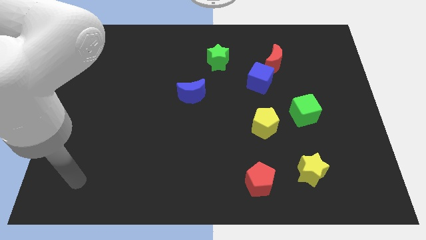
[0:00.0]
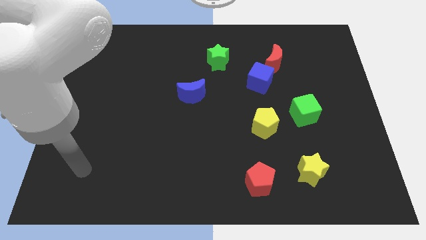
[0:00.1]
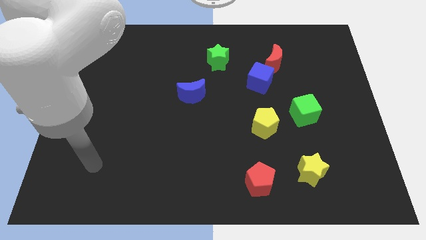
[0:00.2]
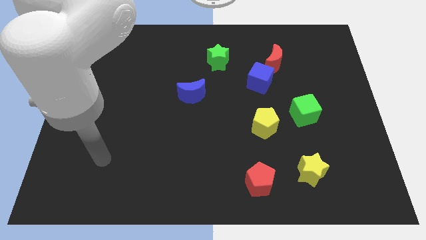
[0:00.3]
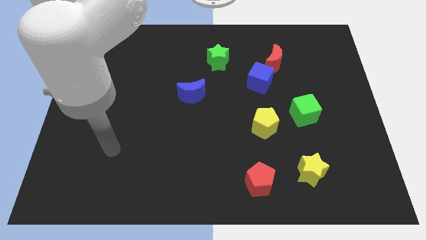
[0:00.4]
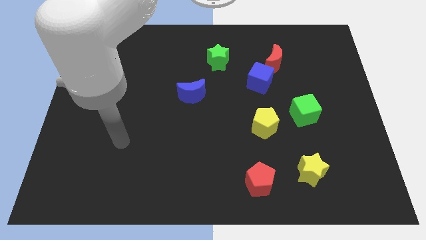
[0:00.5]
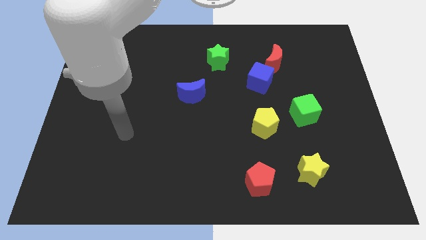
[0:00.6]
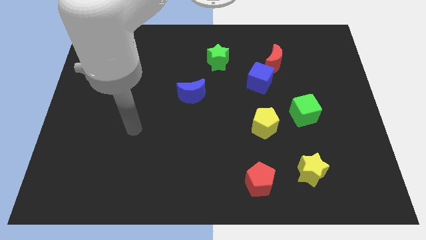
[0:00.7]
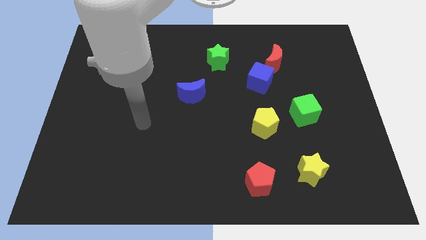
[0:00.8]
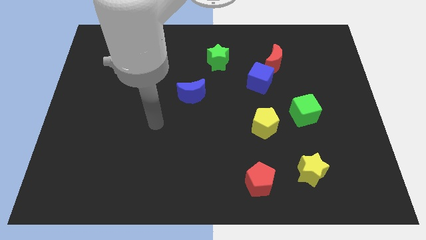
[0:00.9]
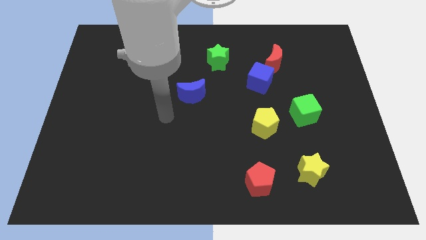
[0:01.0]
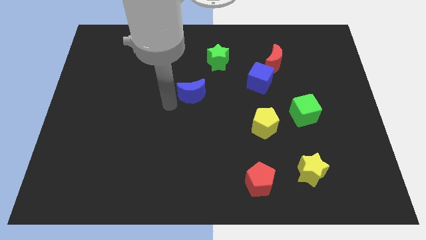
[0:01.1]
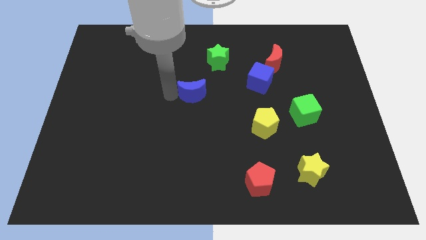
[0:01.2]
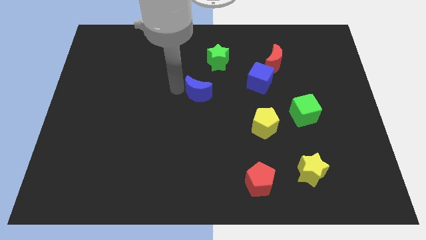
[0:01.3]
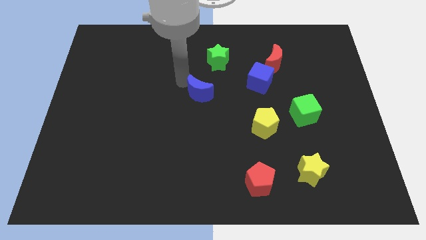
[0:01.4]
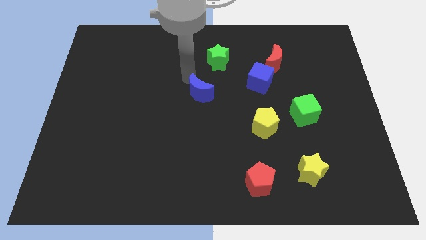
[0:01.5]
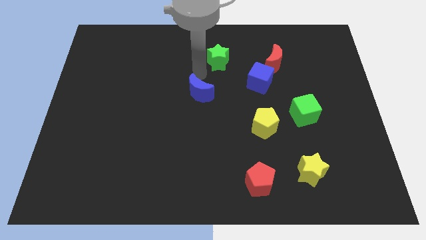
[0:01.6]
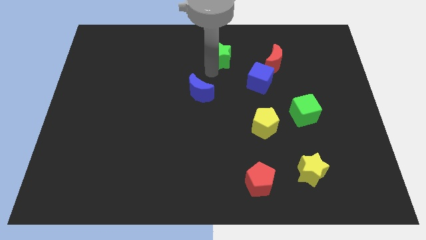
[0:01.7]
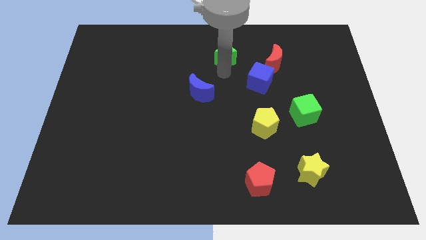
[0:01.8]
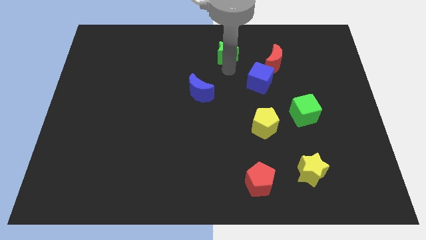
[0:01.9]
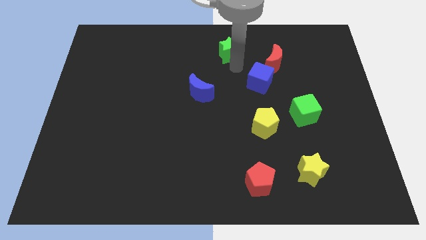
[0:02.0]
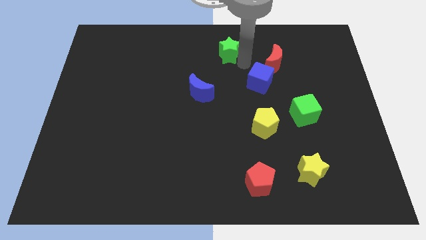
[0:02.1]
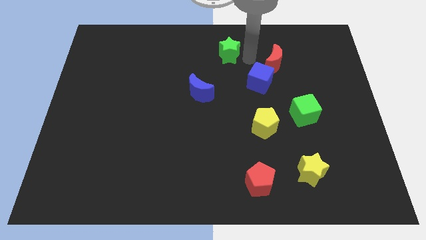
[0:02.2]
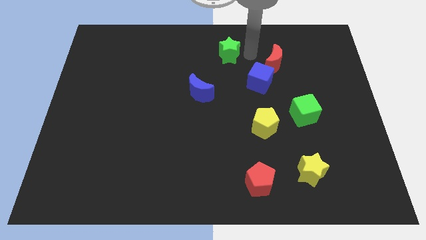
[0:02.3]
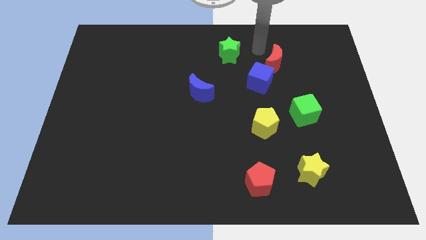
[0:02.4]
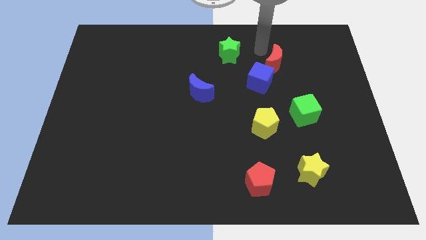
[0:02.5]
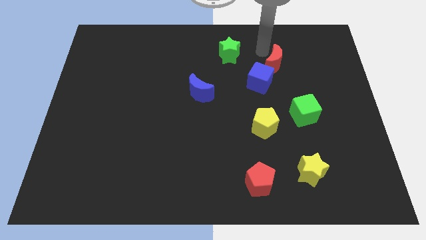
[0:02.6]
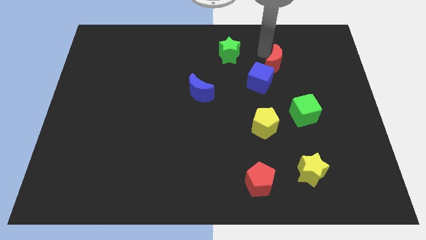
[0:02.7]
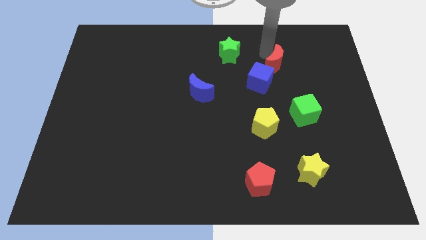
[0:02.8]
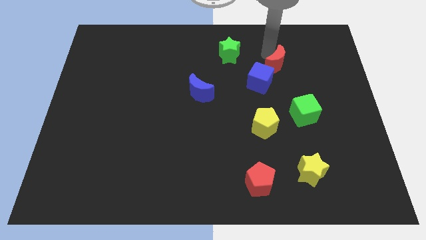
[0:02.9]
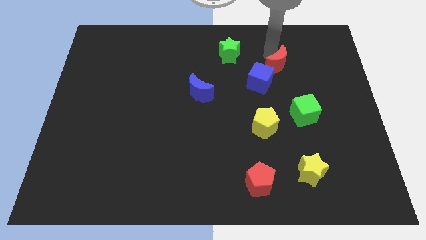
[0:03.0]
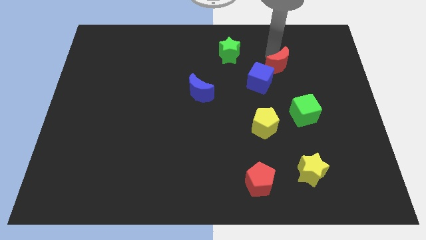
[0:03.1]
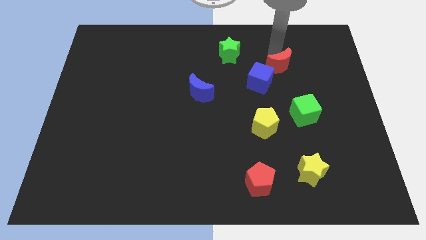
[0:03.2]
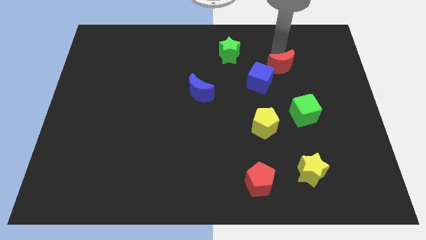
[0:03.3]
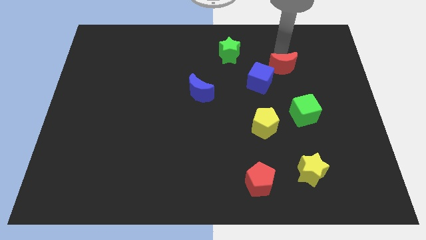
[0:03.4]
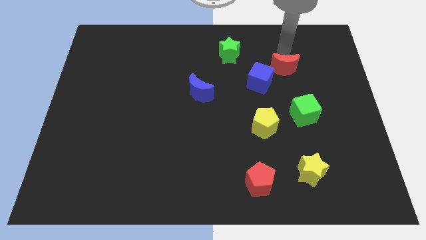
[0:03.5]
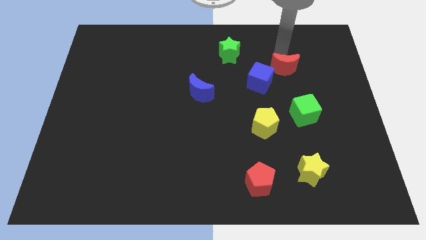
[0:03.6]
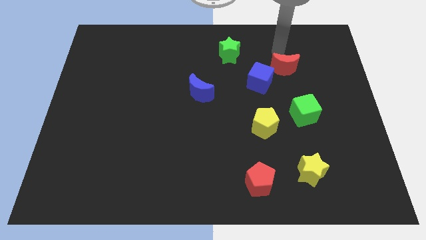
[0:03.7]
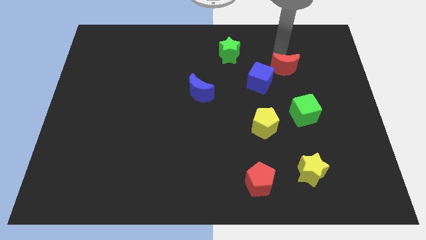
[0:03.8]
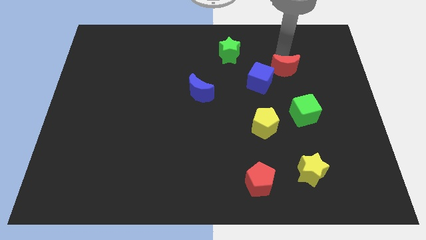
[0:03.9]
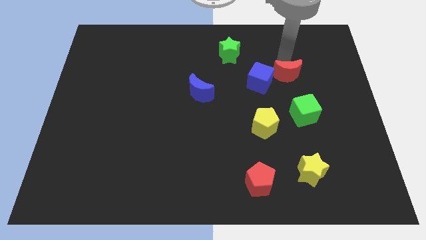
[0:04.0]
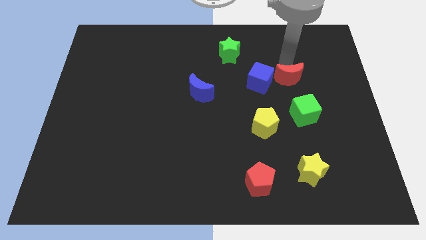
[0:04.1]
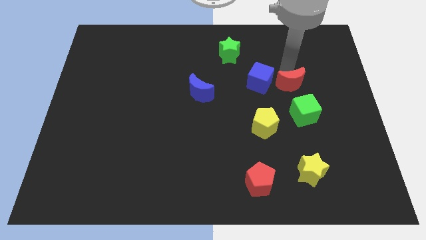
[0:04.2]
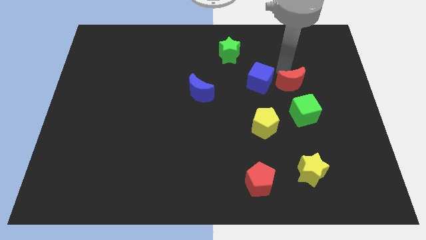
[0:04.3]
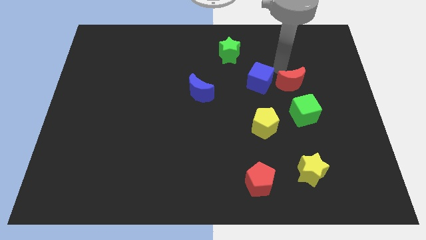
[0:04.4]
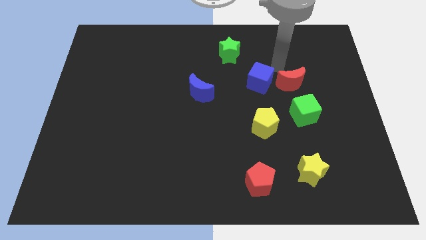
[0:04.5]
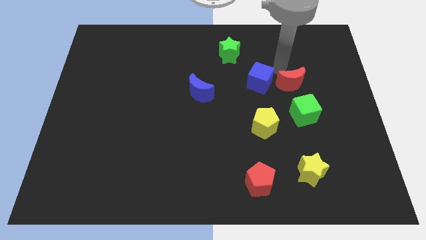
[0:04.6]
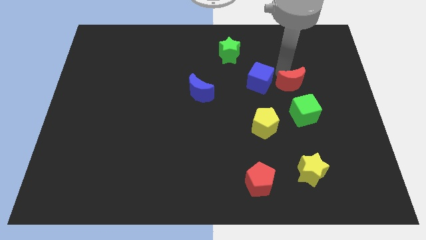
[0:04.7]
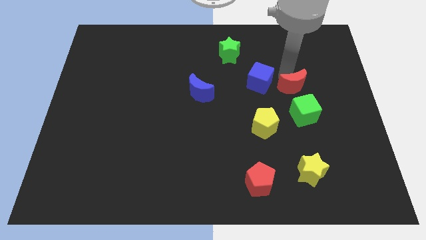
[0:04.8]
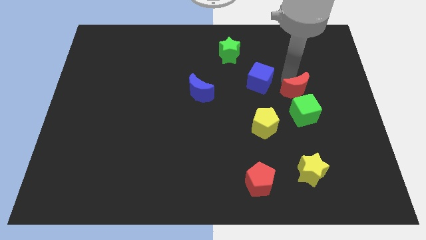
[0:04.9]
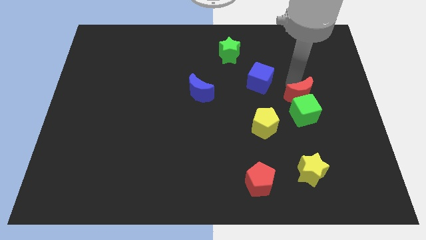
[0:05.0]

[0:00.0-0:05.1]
move the red moon towards the green cube

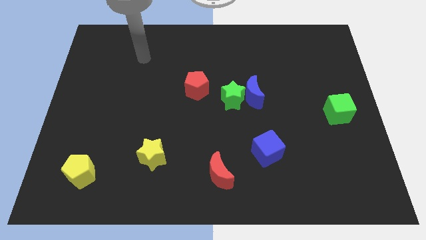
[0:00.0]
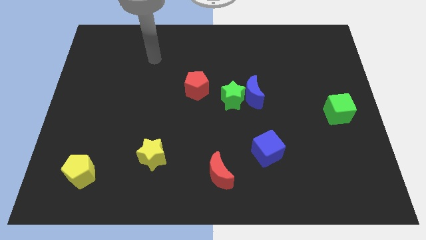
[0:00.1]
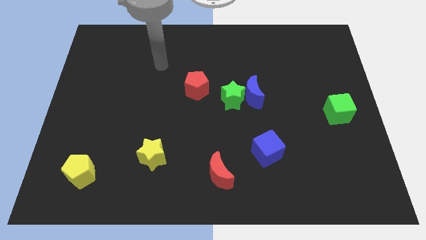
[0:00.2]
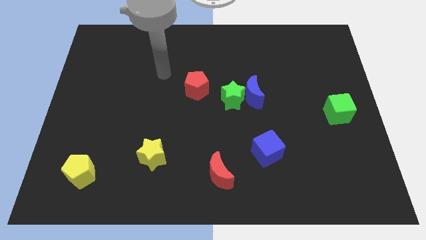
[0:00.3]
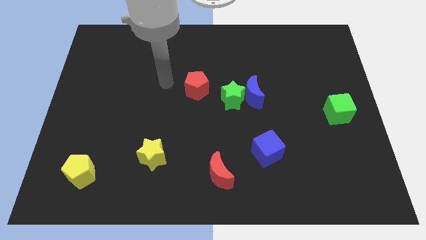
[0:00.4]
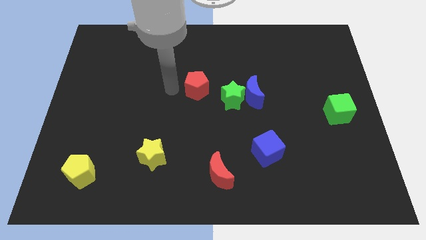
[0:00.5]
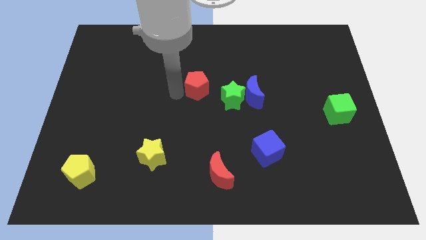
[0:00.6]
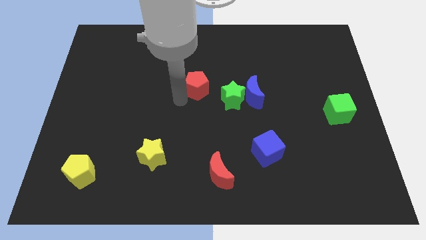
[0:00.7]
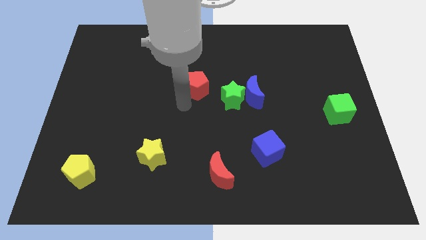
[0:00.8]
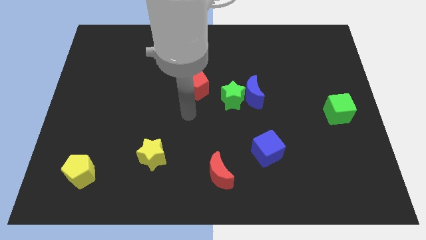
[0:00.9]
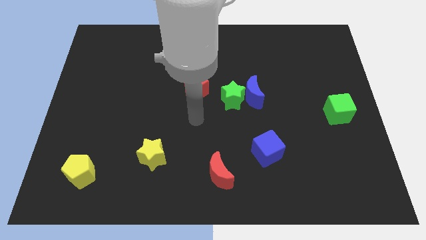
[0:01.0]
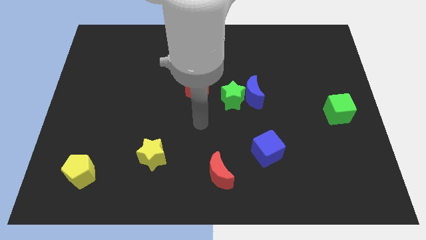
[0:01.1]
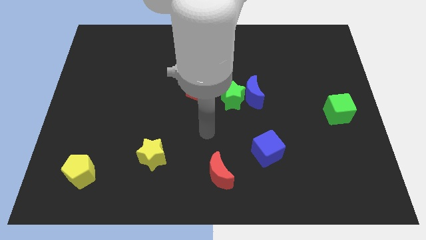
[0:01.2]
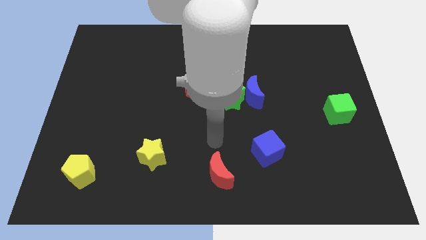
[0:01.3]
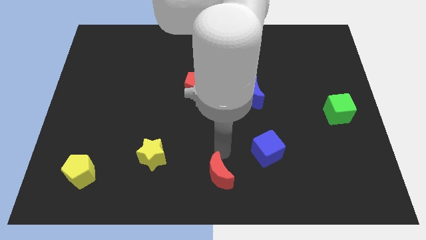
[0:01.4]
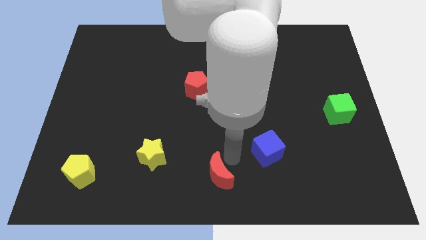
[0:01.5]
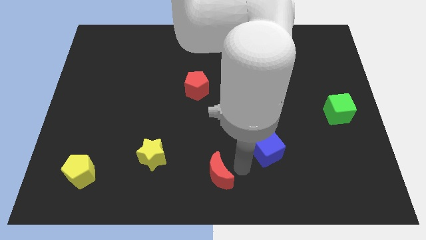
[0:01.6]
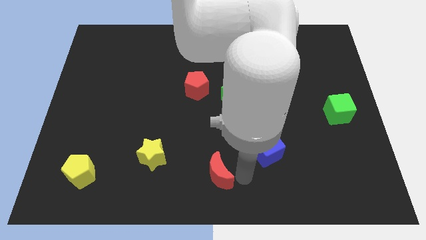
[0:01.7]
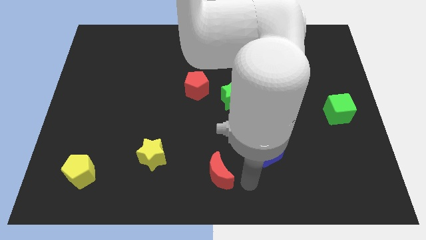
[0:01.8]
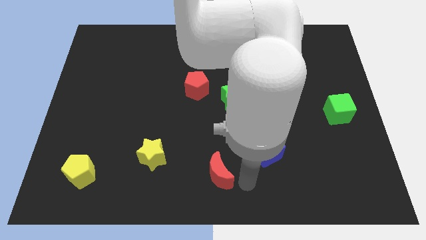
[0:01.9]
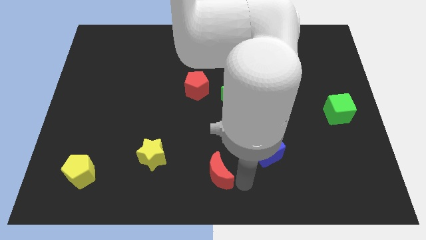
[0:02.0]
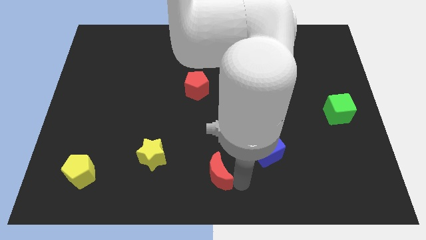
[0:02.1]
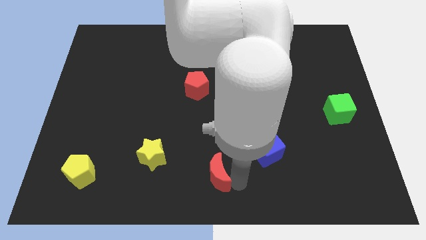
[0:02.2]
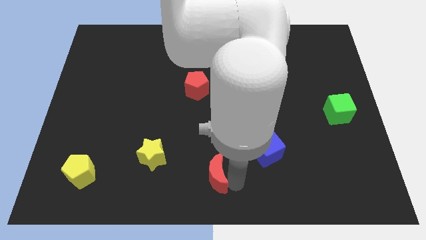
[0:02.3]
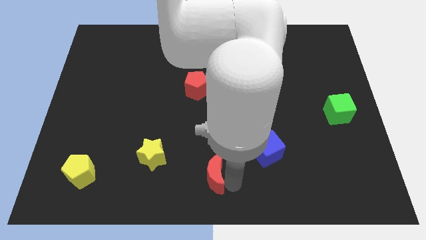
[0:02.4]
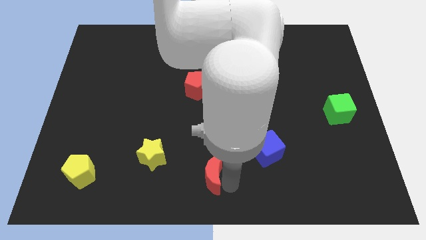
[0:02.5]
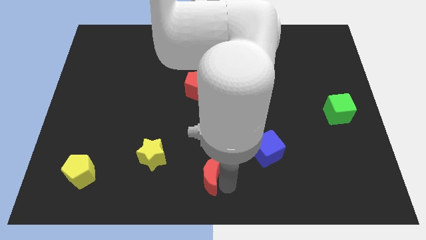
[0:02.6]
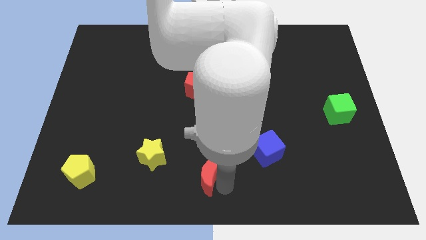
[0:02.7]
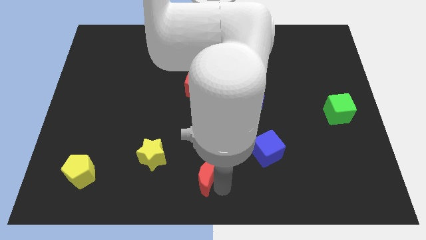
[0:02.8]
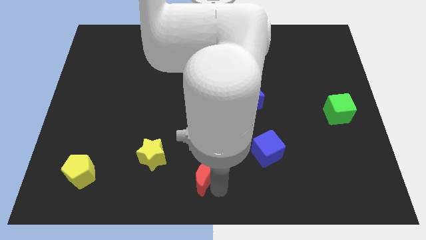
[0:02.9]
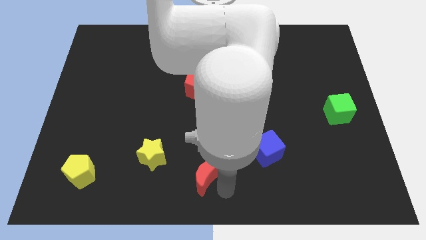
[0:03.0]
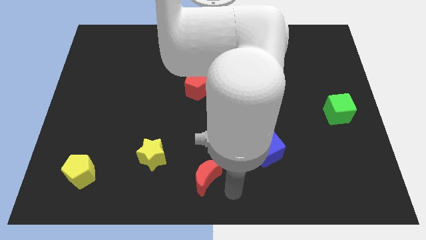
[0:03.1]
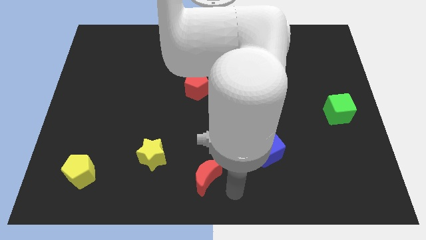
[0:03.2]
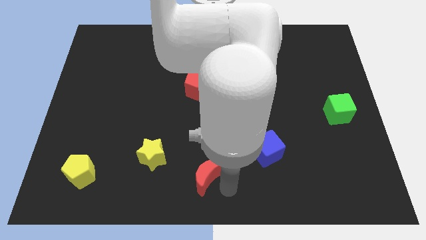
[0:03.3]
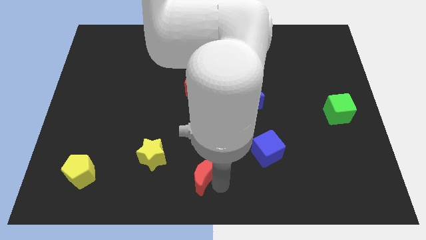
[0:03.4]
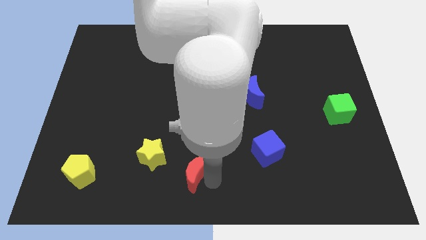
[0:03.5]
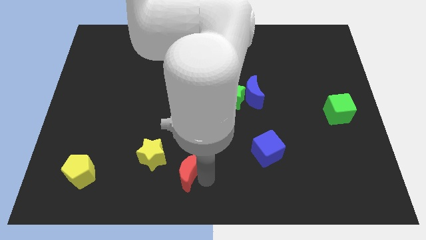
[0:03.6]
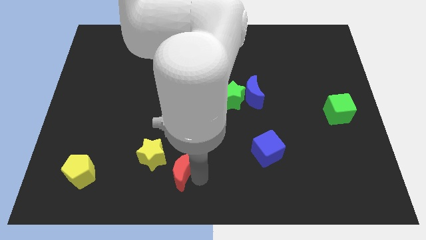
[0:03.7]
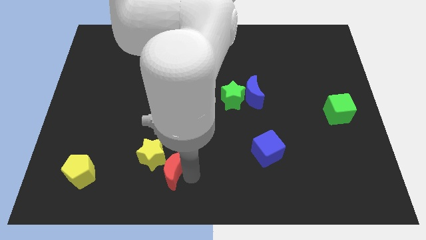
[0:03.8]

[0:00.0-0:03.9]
slide the red moon next to the yellow star
